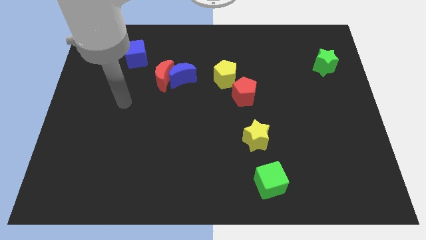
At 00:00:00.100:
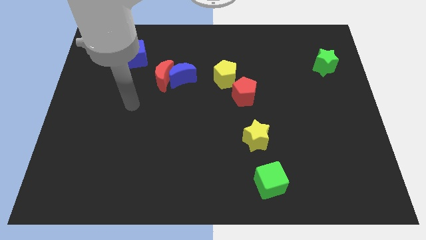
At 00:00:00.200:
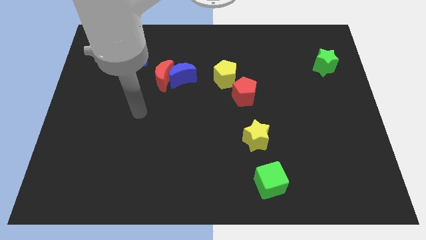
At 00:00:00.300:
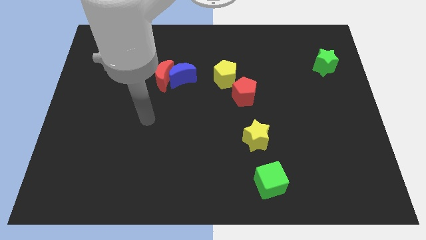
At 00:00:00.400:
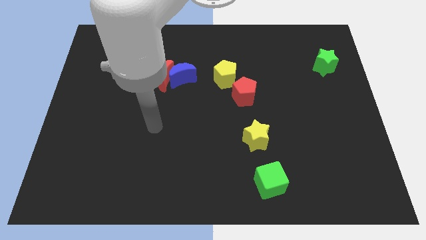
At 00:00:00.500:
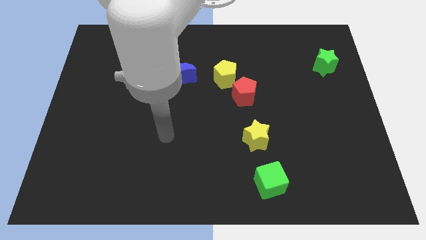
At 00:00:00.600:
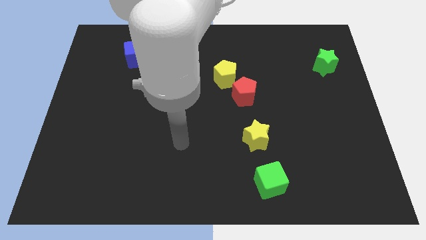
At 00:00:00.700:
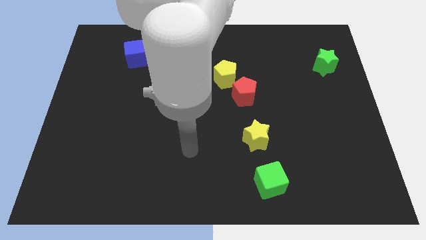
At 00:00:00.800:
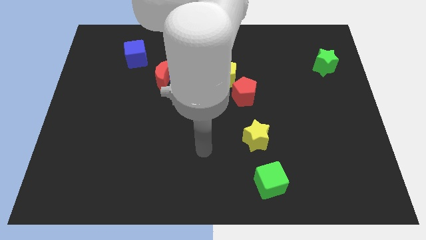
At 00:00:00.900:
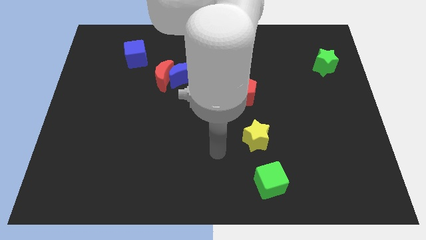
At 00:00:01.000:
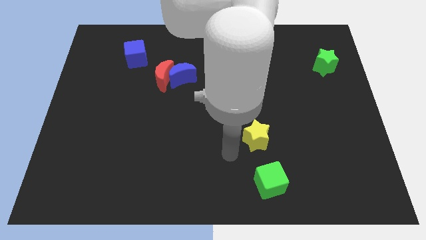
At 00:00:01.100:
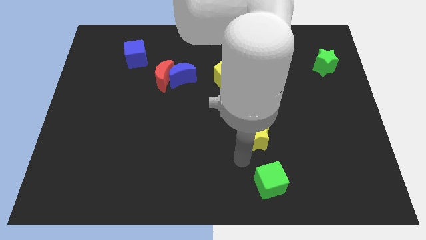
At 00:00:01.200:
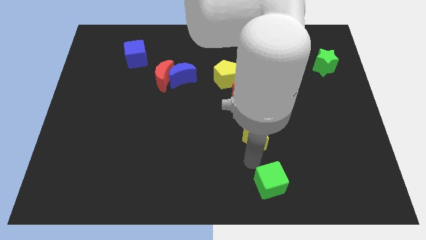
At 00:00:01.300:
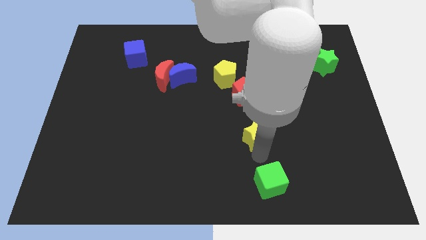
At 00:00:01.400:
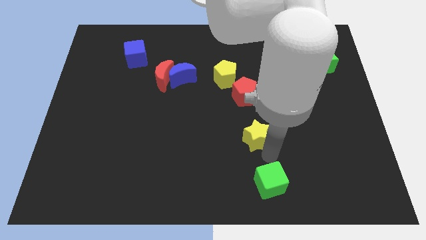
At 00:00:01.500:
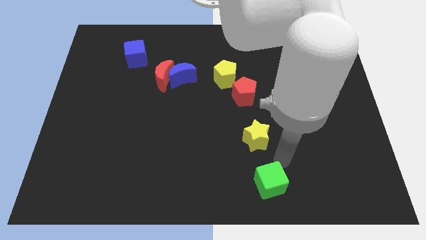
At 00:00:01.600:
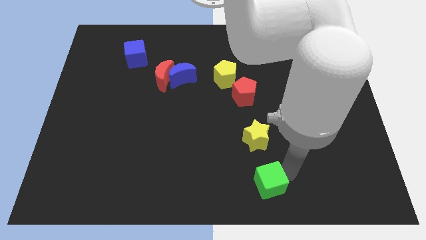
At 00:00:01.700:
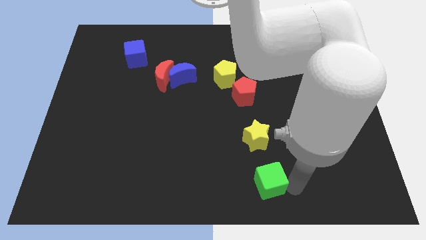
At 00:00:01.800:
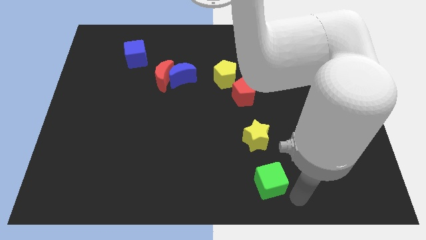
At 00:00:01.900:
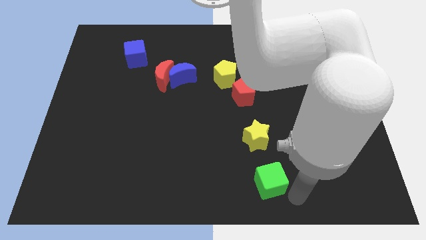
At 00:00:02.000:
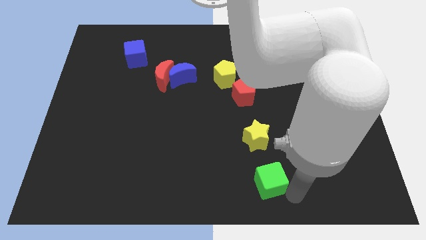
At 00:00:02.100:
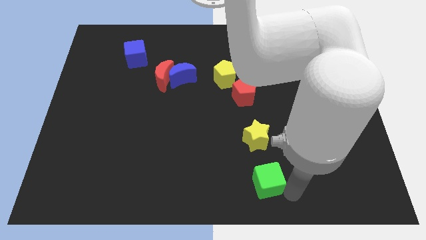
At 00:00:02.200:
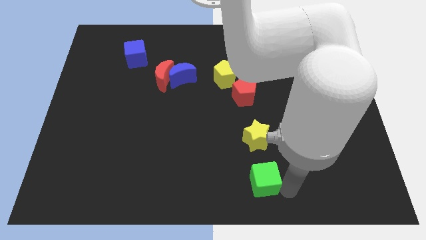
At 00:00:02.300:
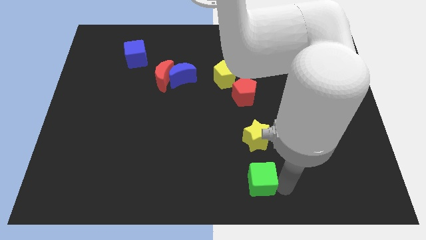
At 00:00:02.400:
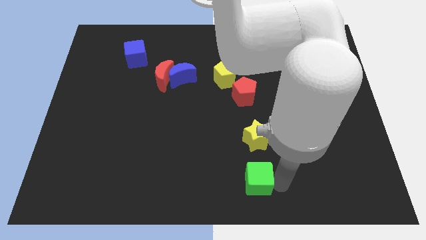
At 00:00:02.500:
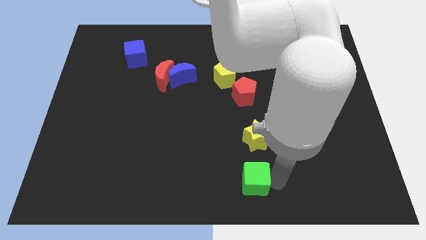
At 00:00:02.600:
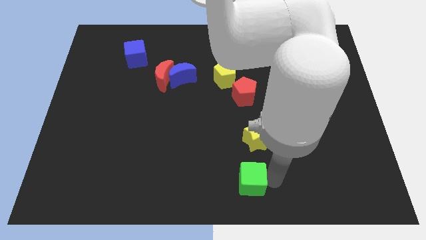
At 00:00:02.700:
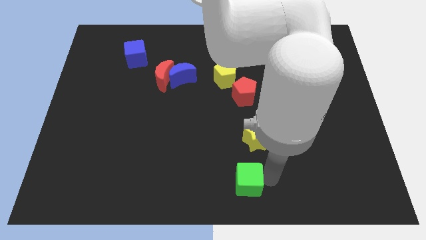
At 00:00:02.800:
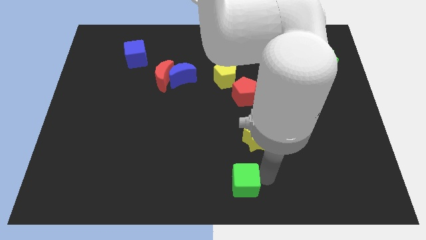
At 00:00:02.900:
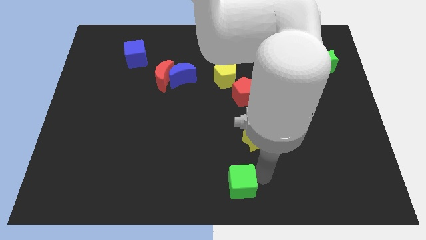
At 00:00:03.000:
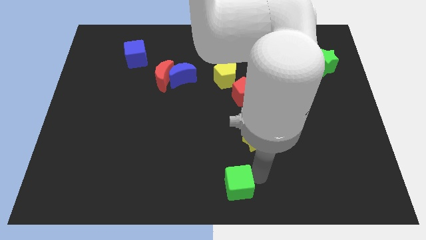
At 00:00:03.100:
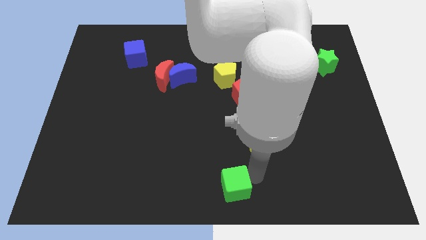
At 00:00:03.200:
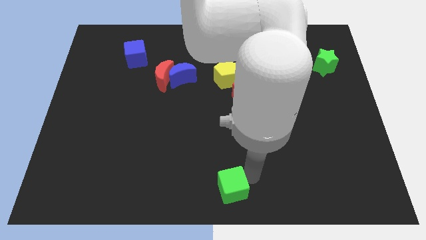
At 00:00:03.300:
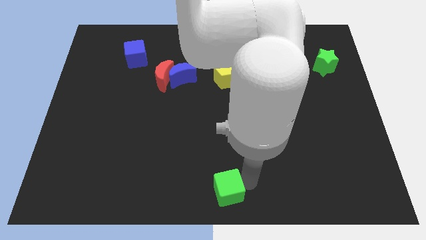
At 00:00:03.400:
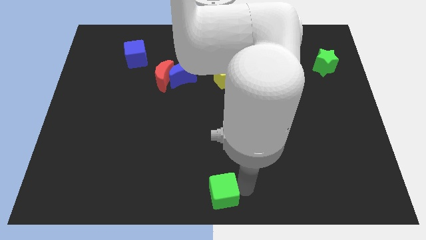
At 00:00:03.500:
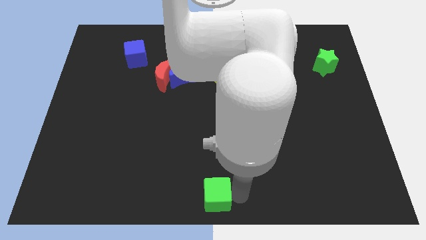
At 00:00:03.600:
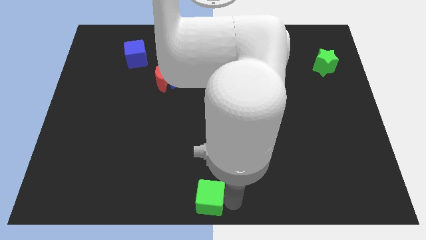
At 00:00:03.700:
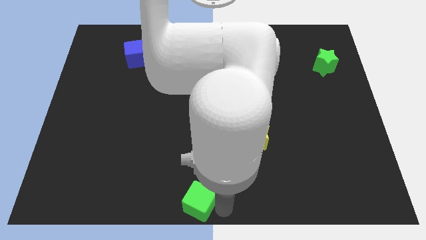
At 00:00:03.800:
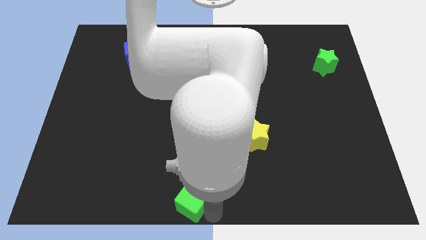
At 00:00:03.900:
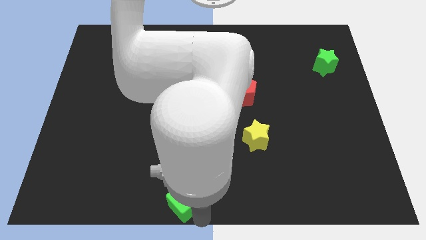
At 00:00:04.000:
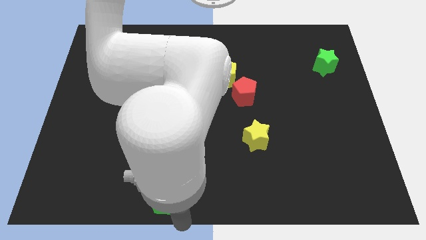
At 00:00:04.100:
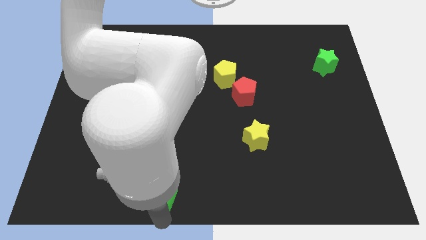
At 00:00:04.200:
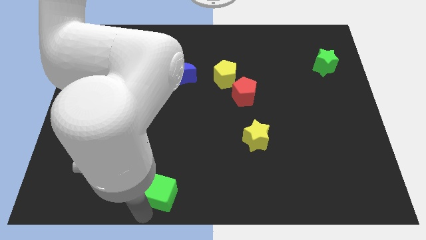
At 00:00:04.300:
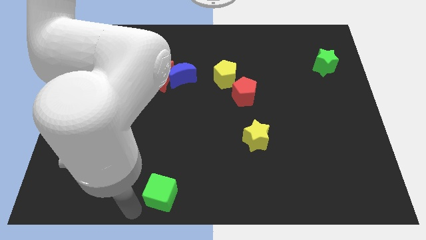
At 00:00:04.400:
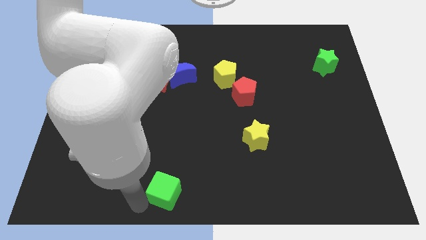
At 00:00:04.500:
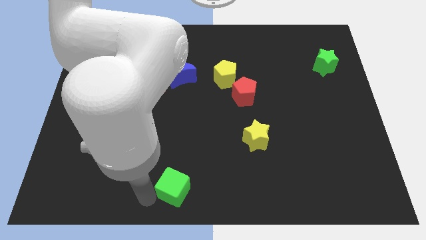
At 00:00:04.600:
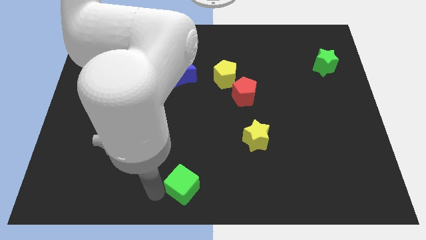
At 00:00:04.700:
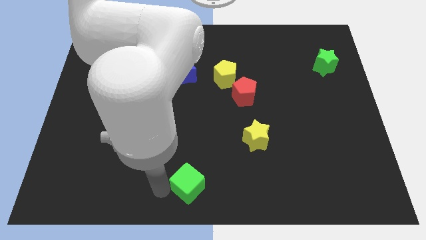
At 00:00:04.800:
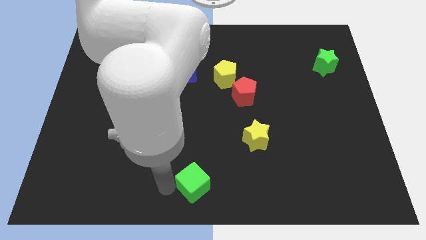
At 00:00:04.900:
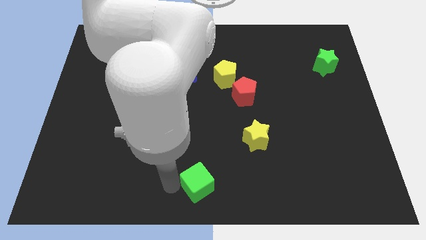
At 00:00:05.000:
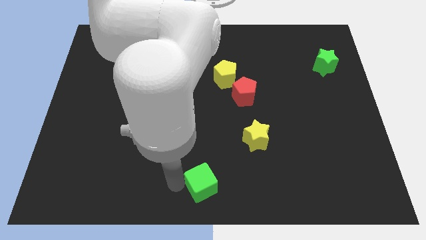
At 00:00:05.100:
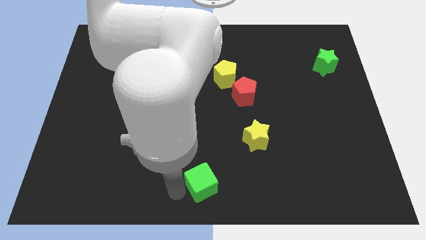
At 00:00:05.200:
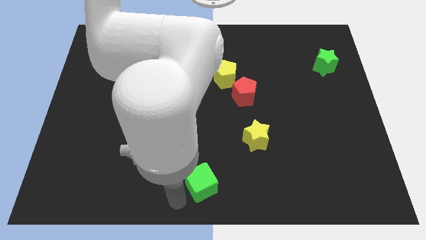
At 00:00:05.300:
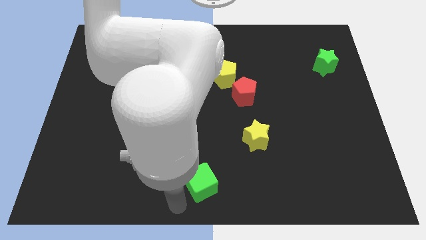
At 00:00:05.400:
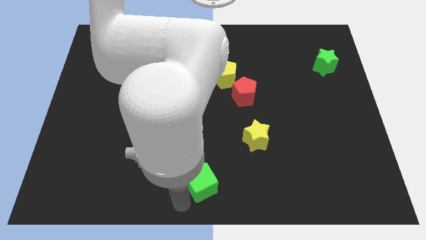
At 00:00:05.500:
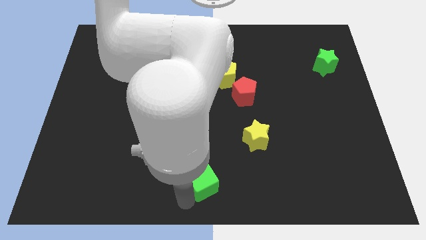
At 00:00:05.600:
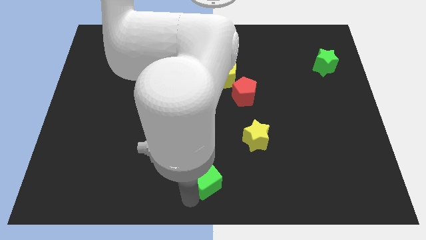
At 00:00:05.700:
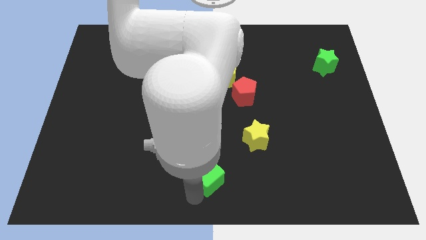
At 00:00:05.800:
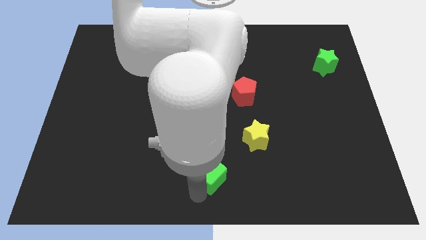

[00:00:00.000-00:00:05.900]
slightly move the green cube up and left

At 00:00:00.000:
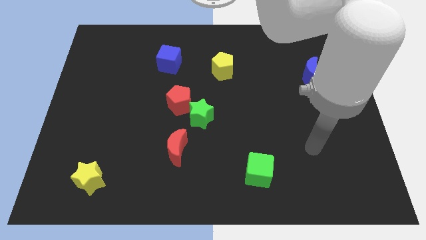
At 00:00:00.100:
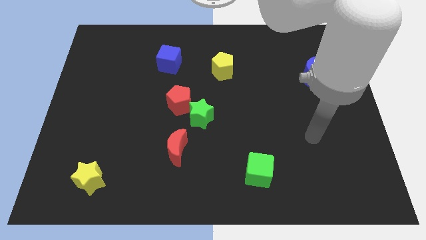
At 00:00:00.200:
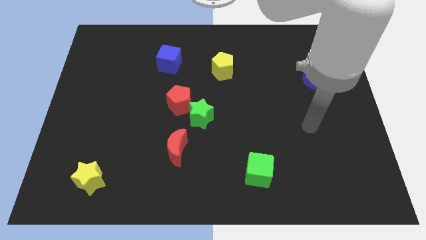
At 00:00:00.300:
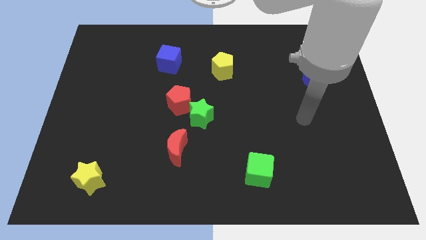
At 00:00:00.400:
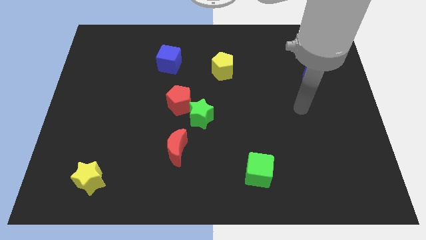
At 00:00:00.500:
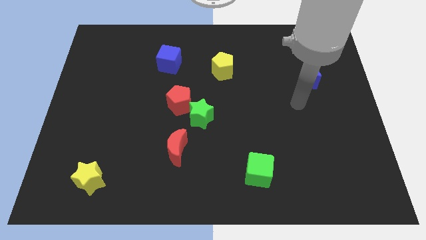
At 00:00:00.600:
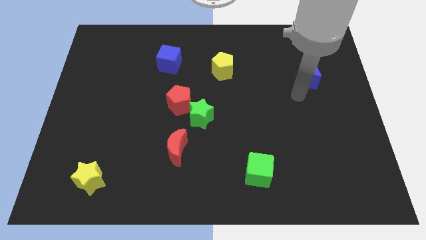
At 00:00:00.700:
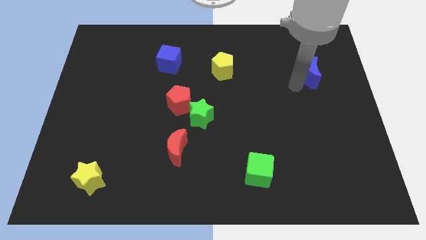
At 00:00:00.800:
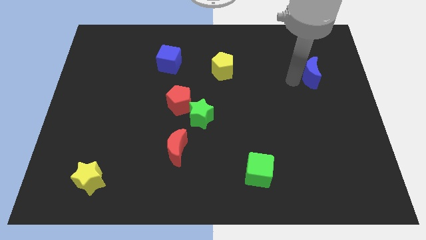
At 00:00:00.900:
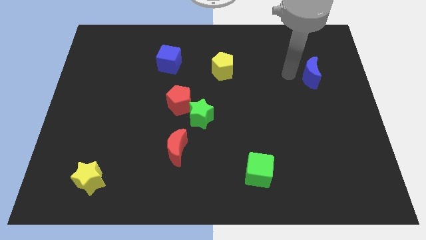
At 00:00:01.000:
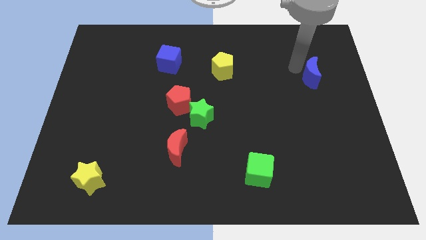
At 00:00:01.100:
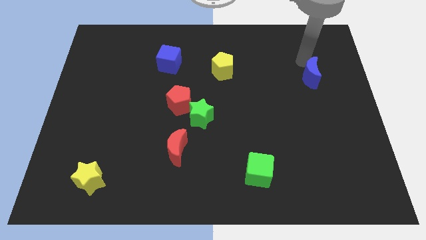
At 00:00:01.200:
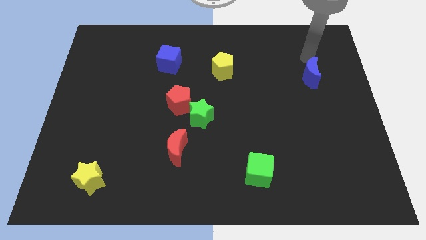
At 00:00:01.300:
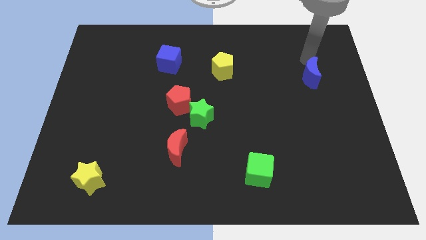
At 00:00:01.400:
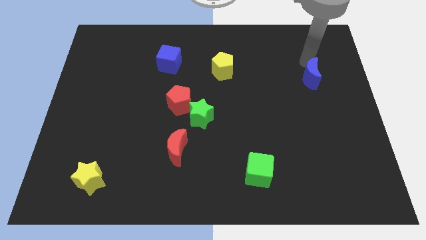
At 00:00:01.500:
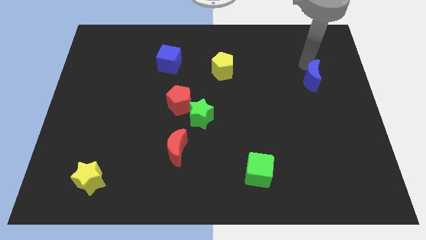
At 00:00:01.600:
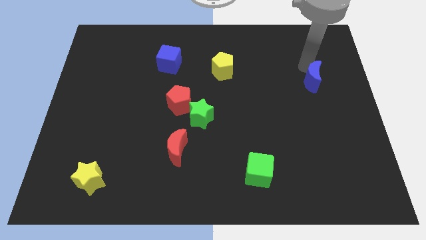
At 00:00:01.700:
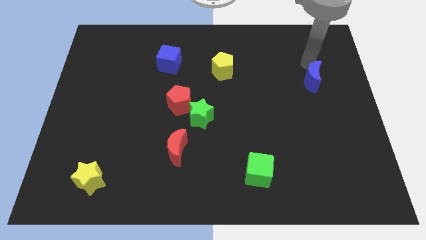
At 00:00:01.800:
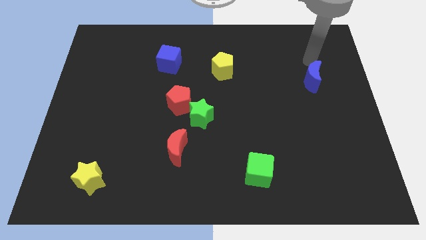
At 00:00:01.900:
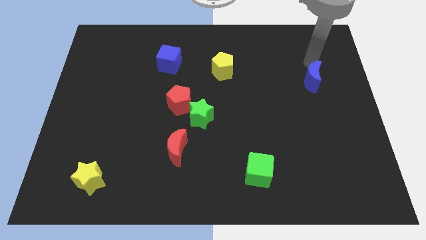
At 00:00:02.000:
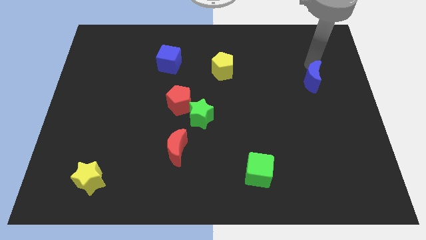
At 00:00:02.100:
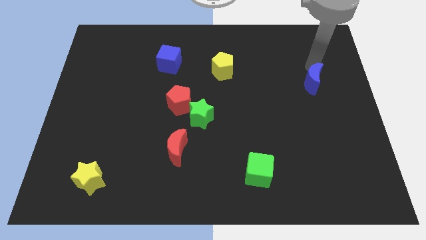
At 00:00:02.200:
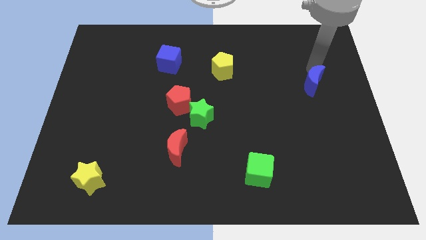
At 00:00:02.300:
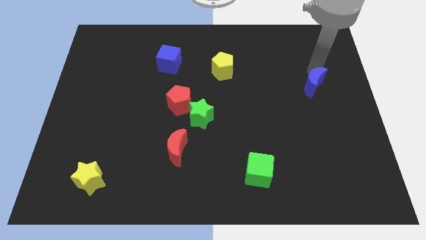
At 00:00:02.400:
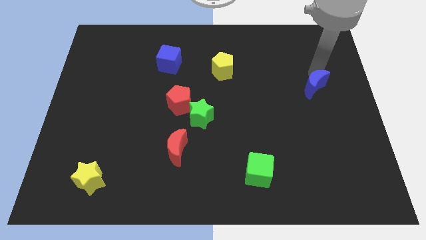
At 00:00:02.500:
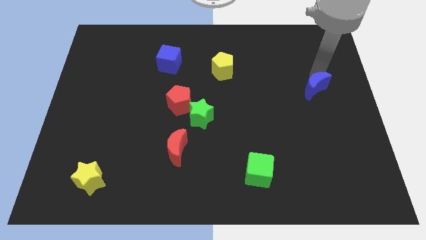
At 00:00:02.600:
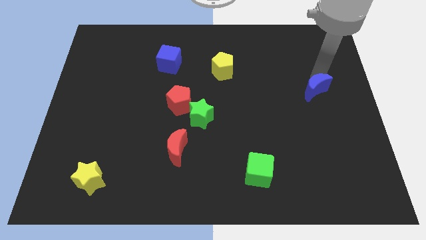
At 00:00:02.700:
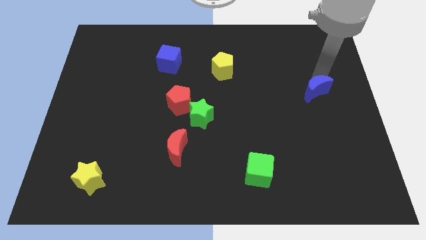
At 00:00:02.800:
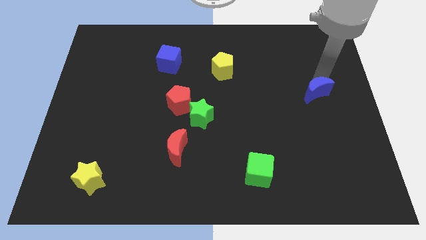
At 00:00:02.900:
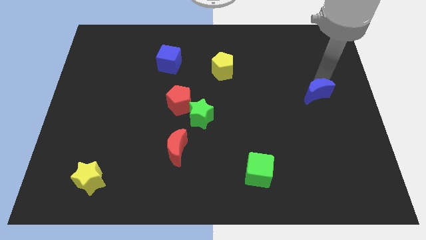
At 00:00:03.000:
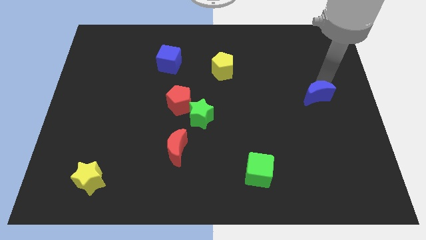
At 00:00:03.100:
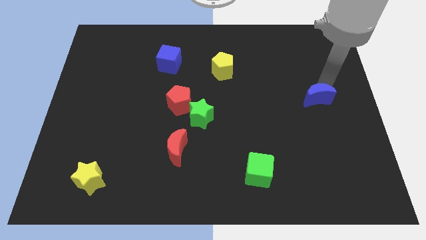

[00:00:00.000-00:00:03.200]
push the blue moon somewhat downwards
